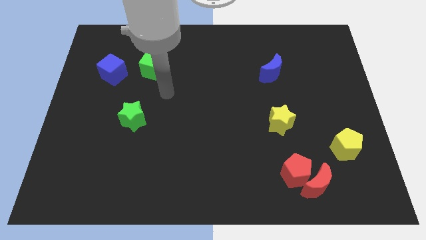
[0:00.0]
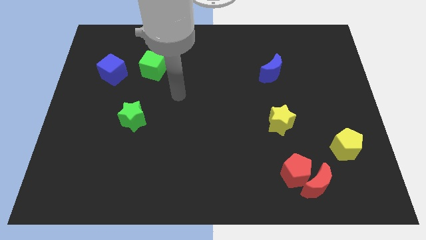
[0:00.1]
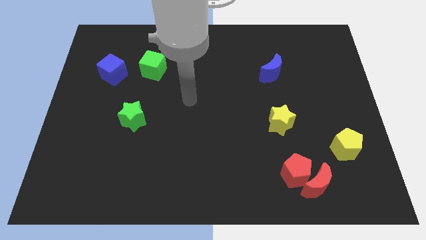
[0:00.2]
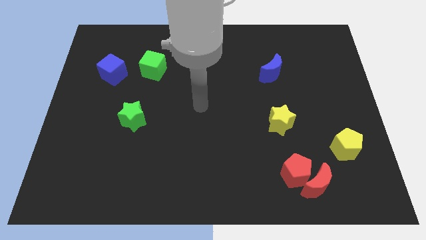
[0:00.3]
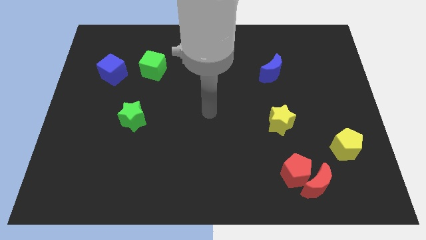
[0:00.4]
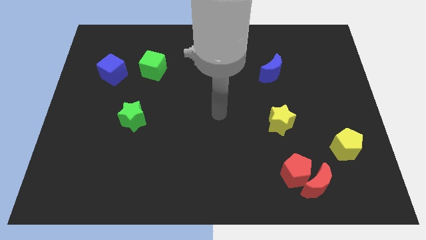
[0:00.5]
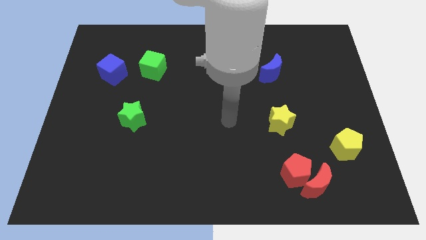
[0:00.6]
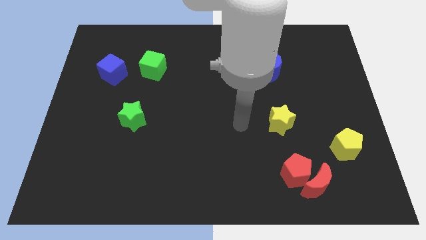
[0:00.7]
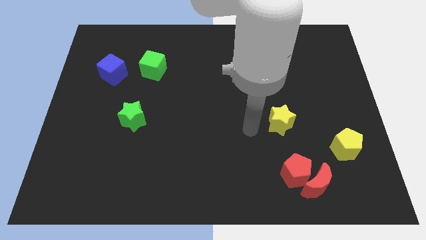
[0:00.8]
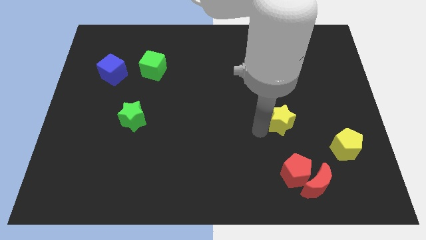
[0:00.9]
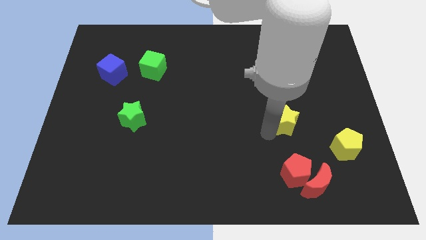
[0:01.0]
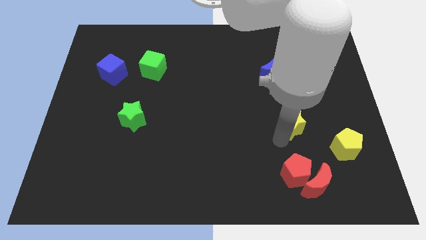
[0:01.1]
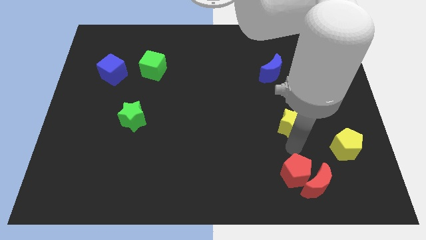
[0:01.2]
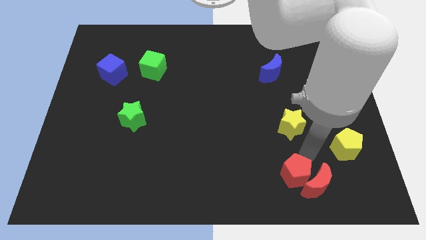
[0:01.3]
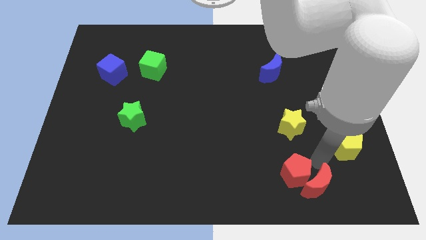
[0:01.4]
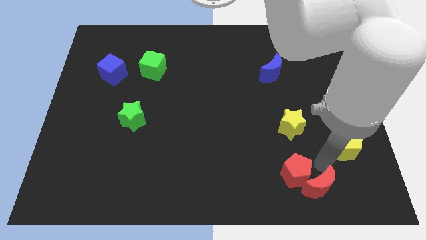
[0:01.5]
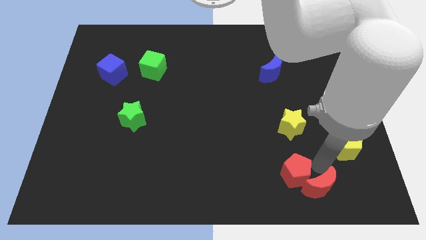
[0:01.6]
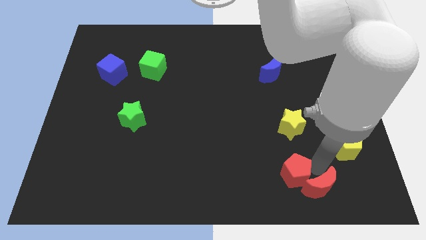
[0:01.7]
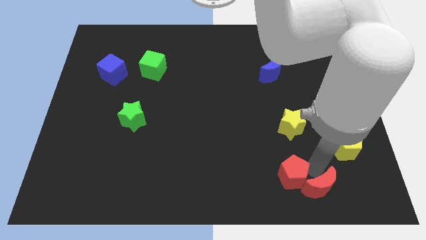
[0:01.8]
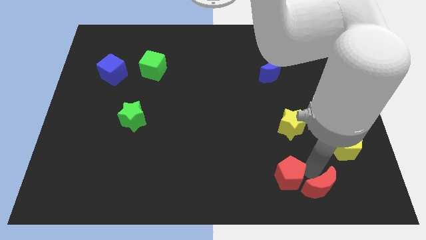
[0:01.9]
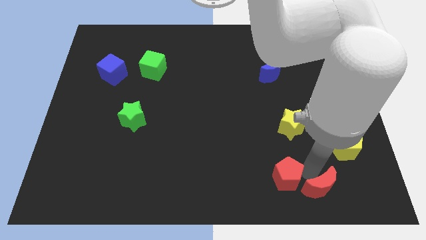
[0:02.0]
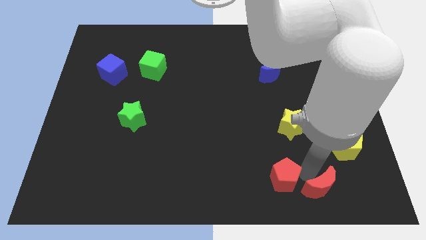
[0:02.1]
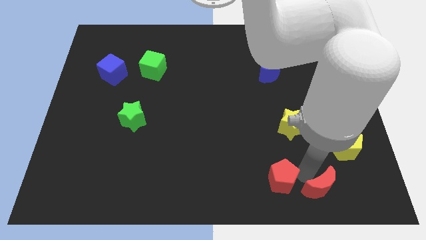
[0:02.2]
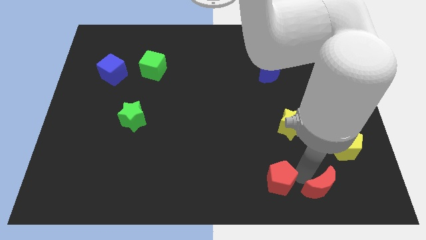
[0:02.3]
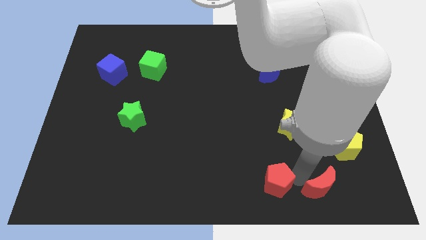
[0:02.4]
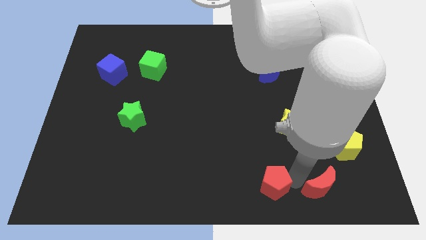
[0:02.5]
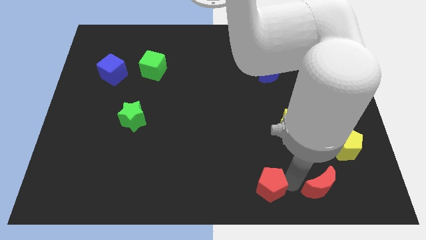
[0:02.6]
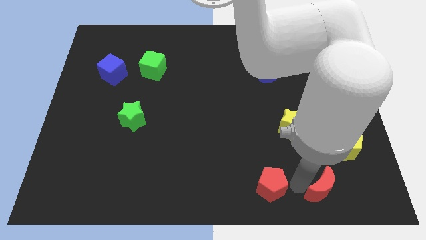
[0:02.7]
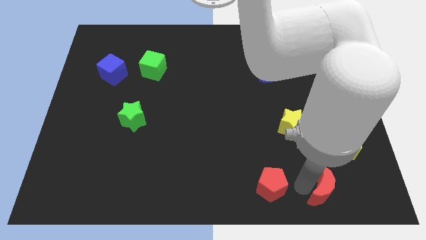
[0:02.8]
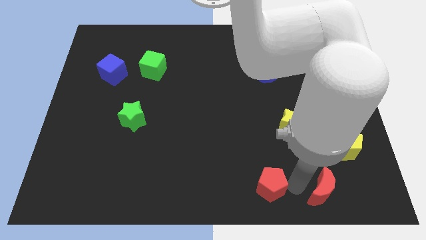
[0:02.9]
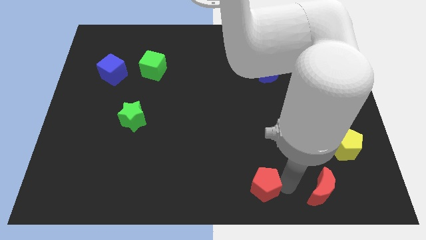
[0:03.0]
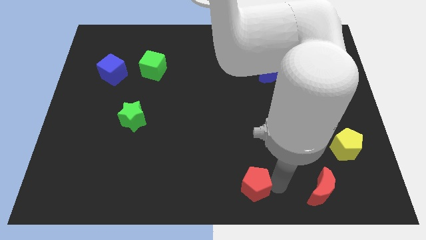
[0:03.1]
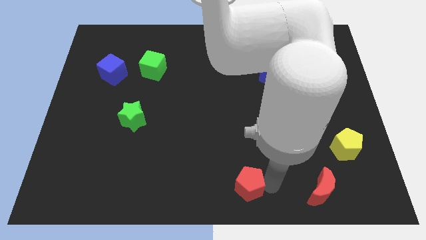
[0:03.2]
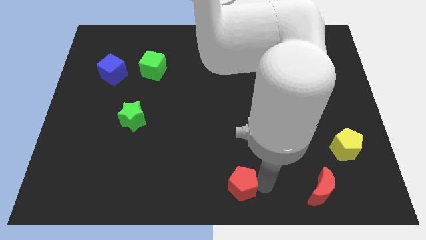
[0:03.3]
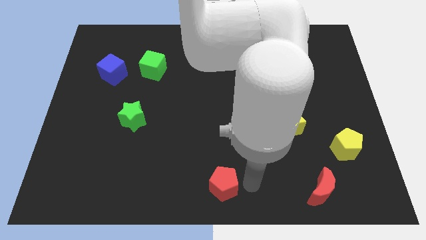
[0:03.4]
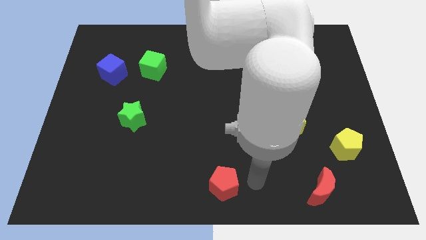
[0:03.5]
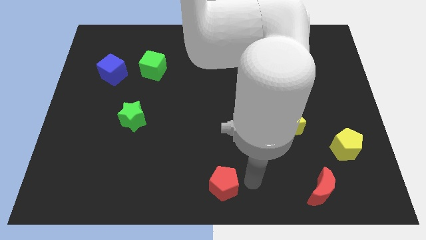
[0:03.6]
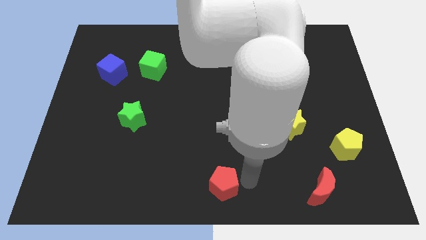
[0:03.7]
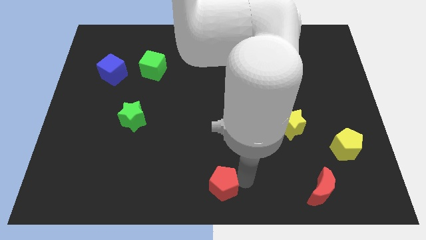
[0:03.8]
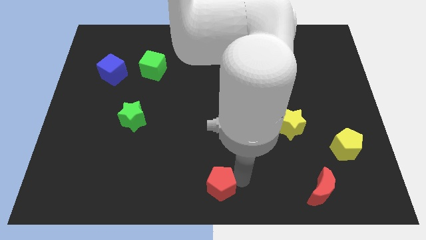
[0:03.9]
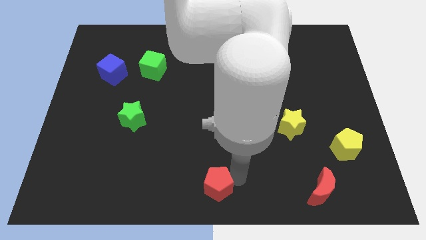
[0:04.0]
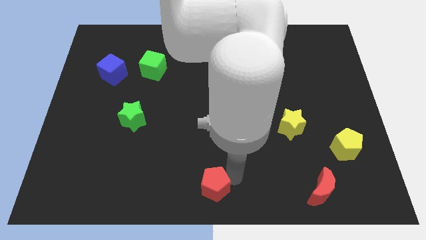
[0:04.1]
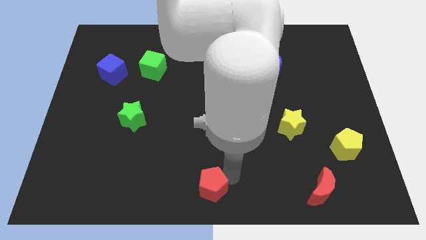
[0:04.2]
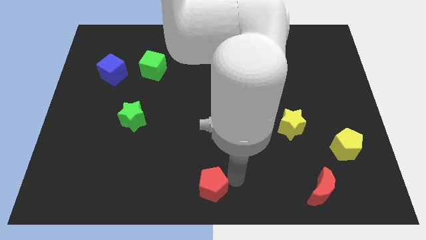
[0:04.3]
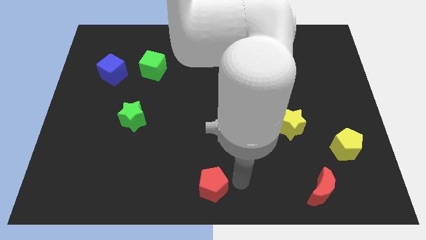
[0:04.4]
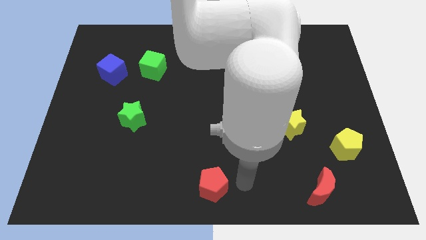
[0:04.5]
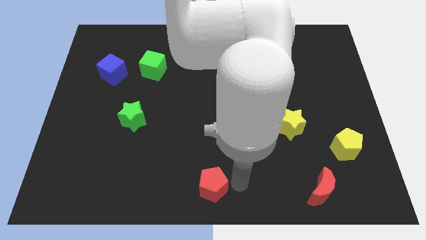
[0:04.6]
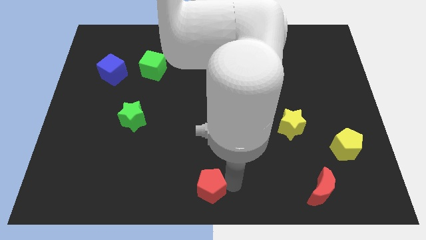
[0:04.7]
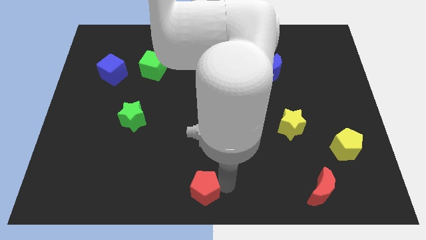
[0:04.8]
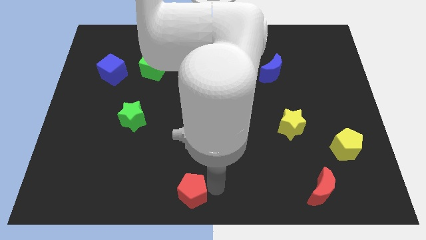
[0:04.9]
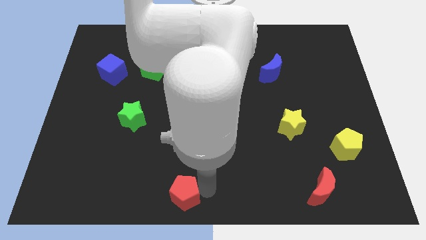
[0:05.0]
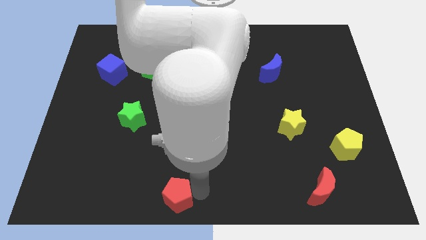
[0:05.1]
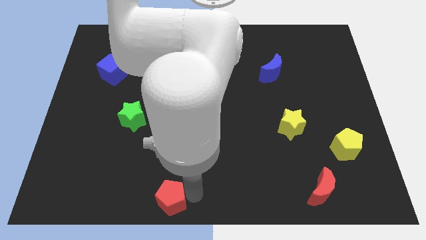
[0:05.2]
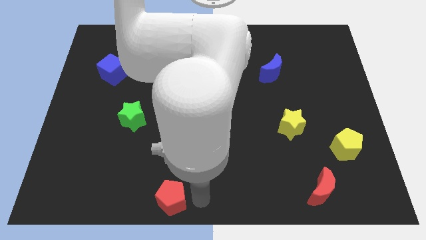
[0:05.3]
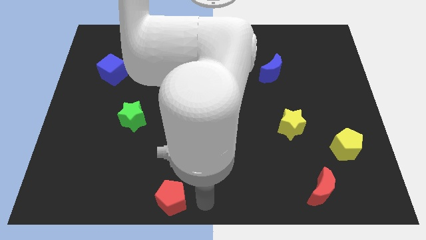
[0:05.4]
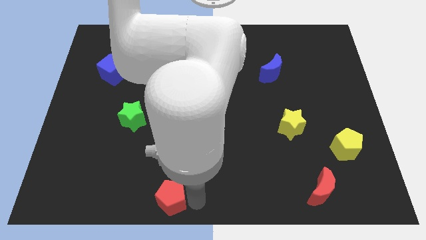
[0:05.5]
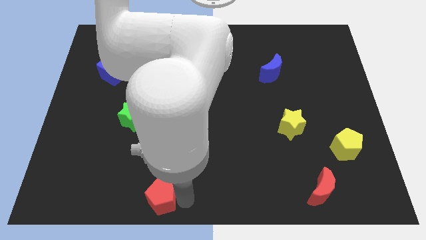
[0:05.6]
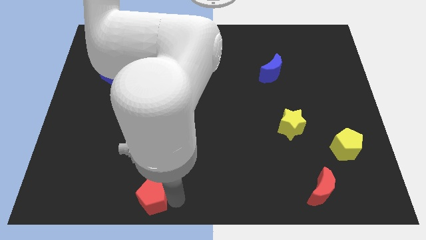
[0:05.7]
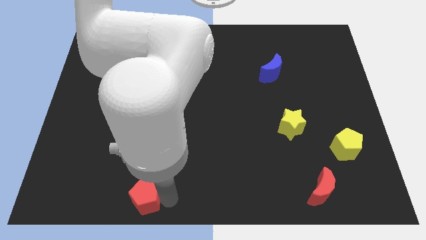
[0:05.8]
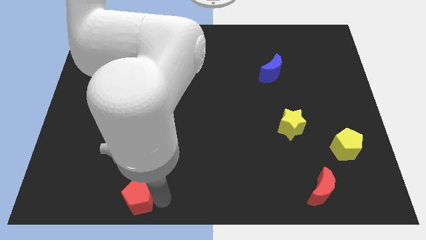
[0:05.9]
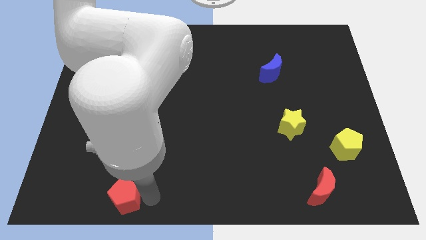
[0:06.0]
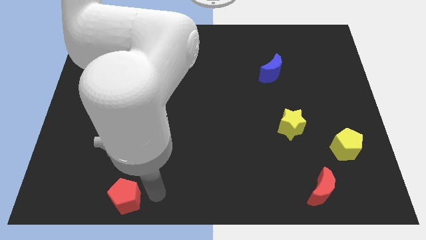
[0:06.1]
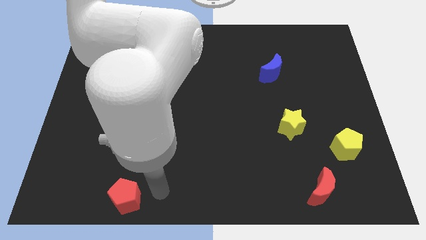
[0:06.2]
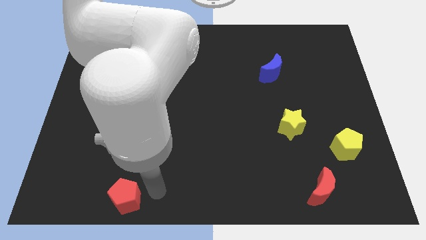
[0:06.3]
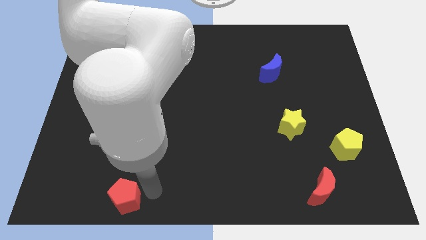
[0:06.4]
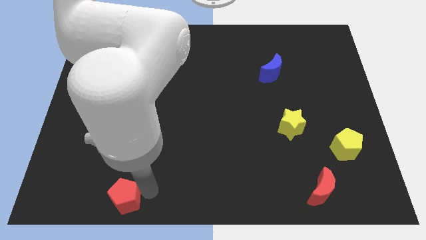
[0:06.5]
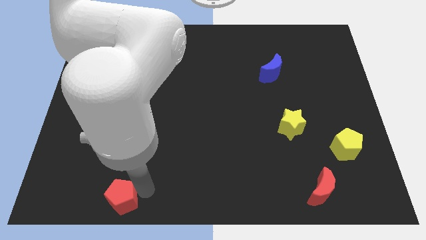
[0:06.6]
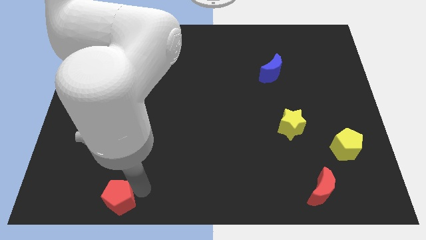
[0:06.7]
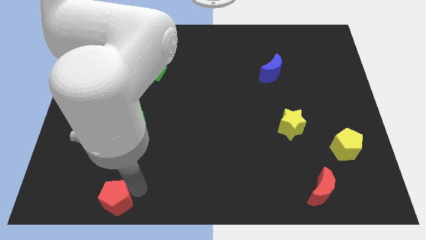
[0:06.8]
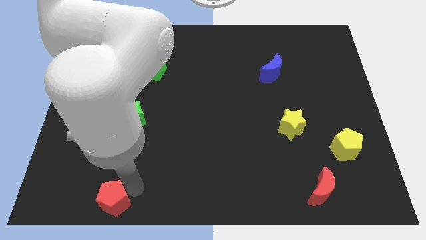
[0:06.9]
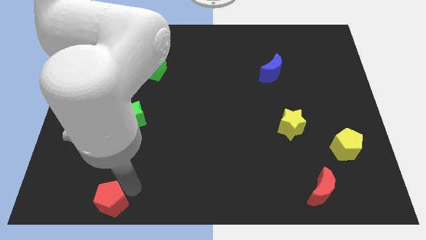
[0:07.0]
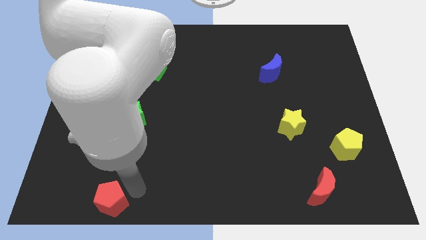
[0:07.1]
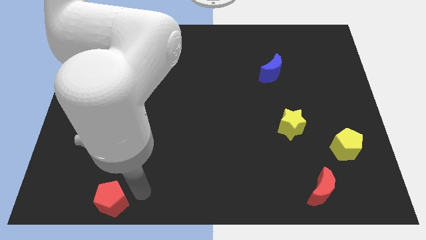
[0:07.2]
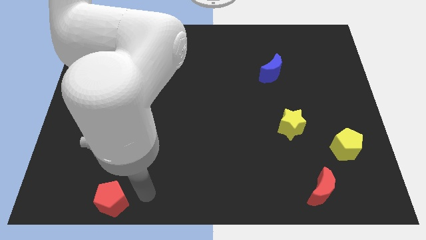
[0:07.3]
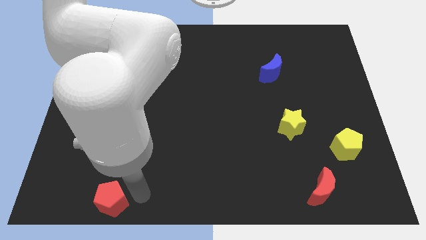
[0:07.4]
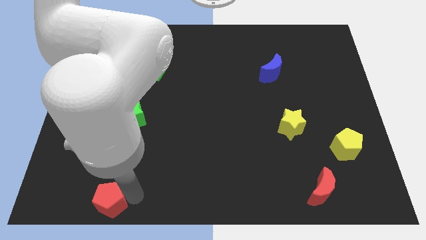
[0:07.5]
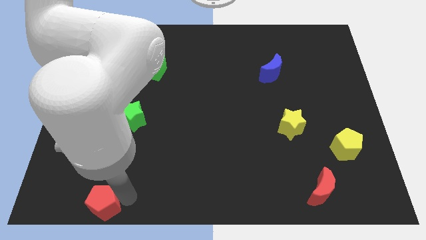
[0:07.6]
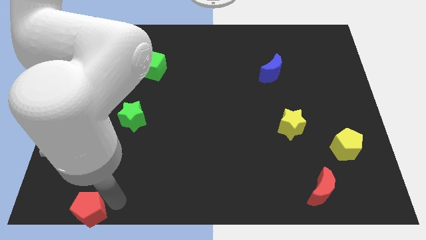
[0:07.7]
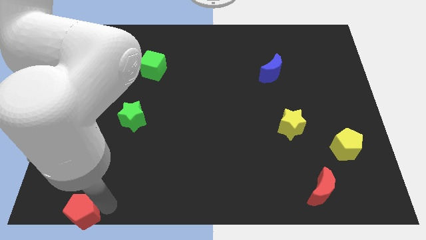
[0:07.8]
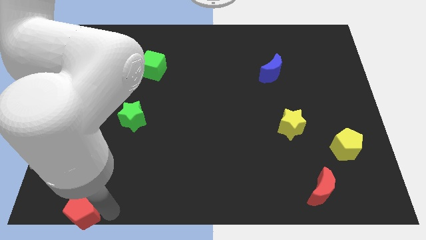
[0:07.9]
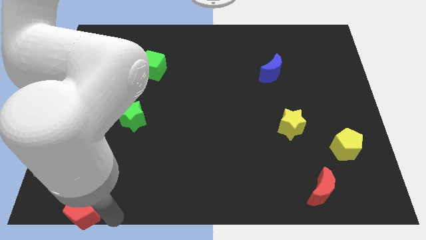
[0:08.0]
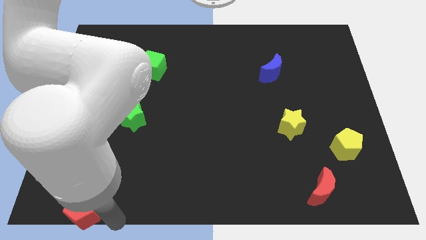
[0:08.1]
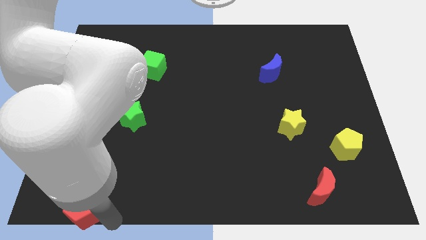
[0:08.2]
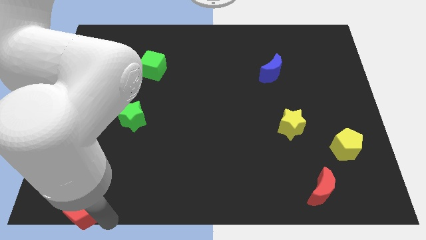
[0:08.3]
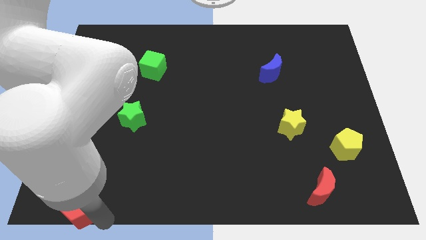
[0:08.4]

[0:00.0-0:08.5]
put the red pentagon to the bottom left of the board
